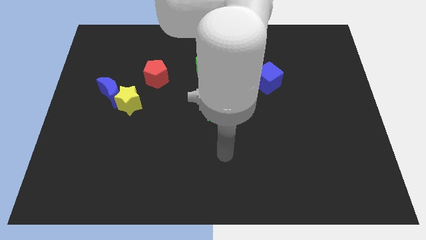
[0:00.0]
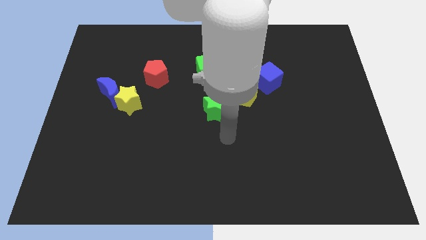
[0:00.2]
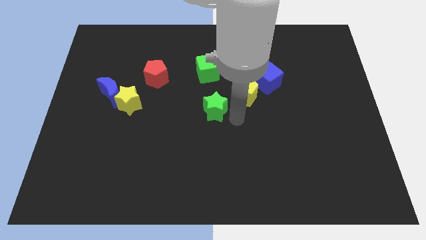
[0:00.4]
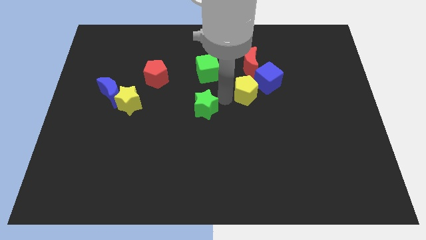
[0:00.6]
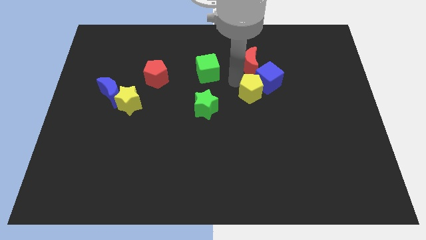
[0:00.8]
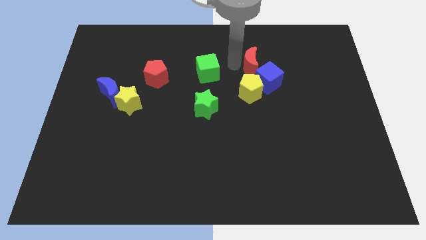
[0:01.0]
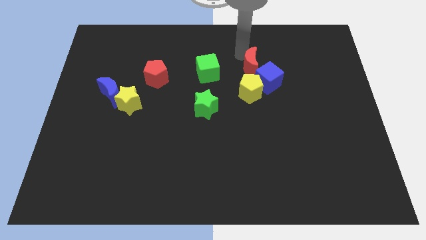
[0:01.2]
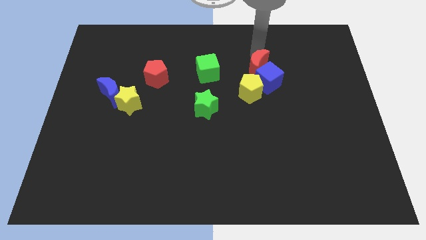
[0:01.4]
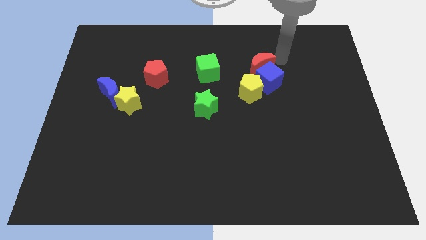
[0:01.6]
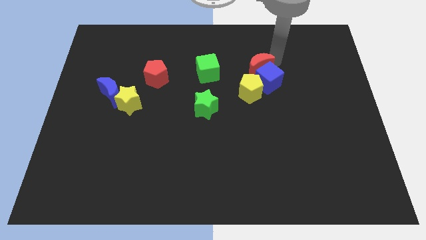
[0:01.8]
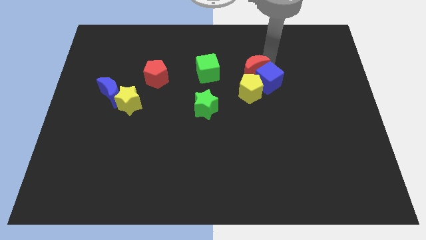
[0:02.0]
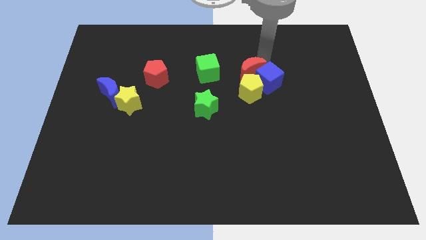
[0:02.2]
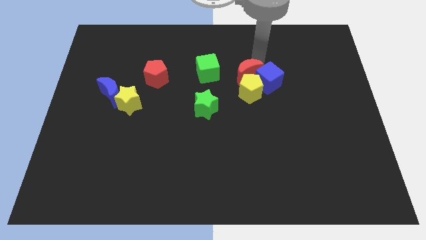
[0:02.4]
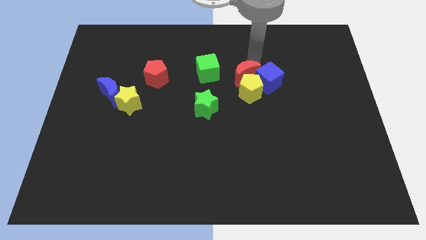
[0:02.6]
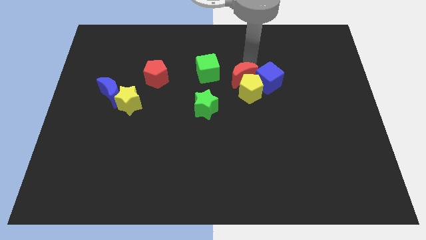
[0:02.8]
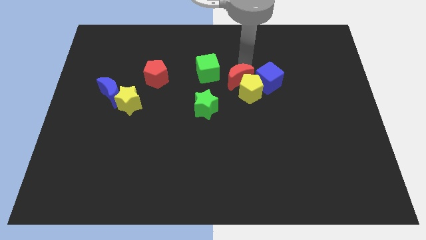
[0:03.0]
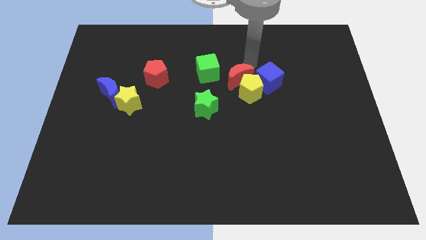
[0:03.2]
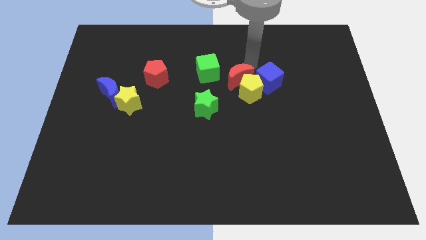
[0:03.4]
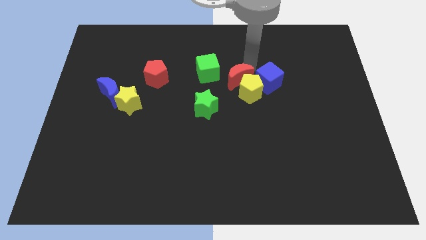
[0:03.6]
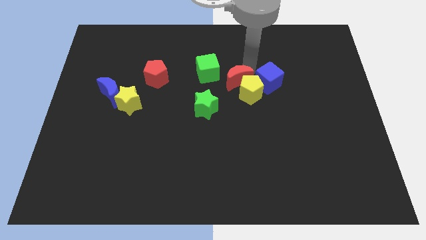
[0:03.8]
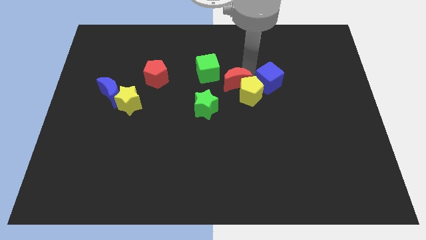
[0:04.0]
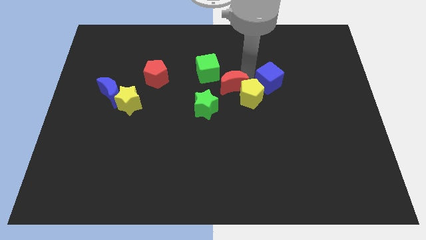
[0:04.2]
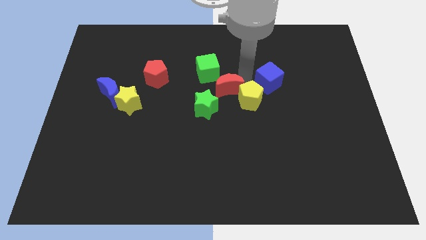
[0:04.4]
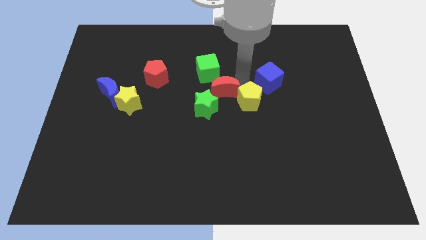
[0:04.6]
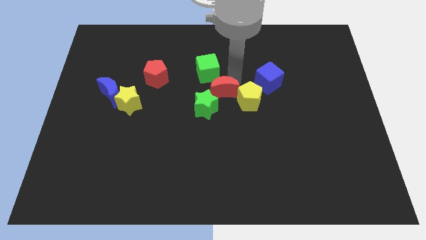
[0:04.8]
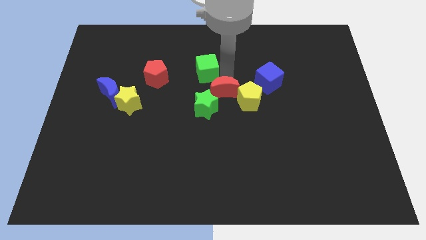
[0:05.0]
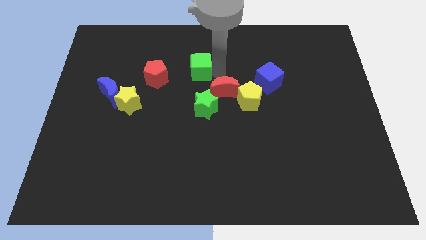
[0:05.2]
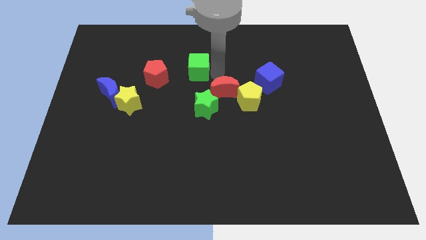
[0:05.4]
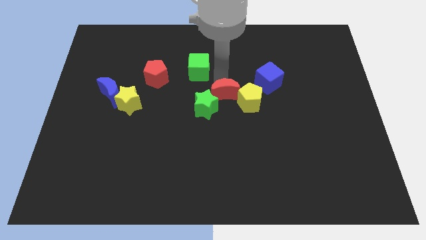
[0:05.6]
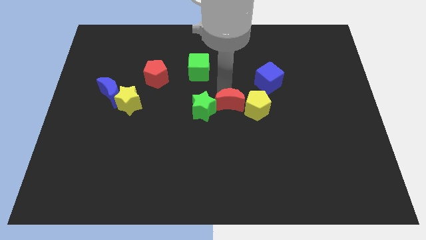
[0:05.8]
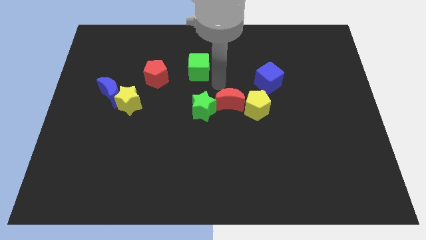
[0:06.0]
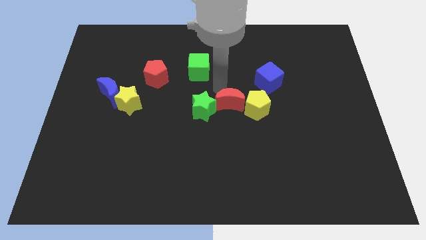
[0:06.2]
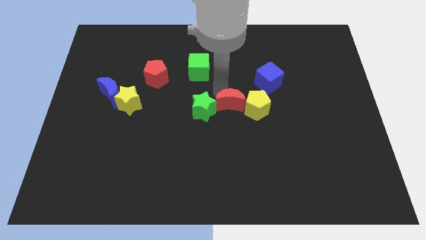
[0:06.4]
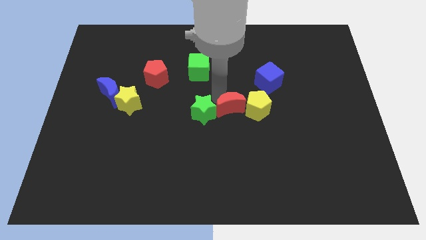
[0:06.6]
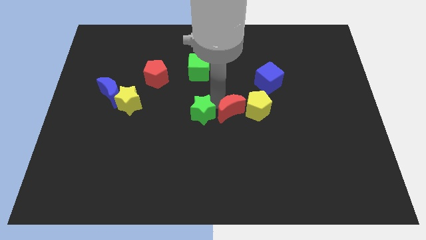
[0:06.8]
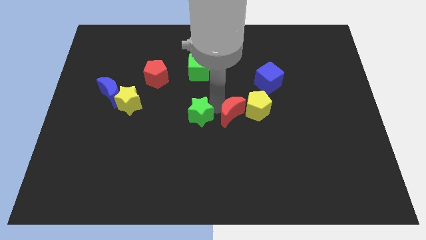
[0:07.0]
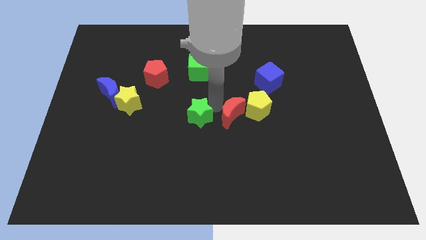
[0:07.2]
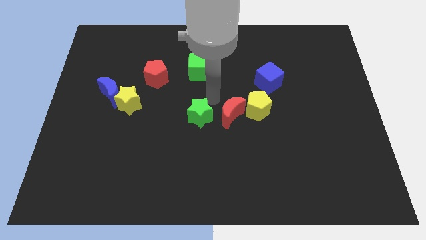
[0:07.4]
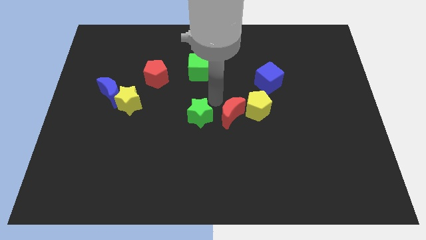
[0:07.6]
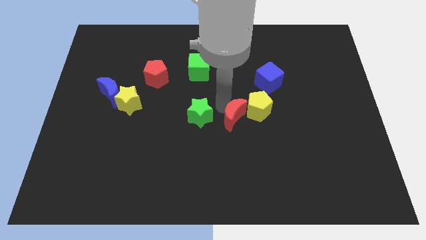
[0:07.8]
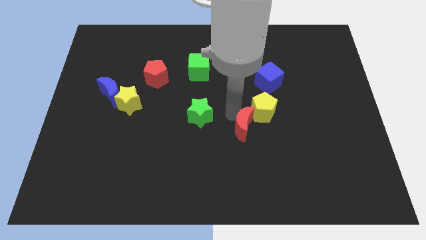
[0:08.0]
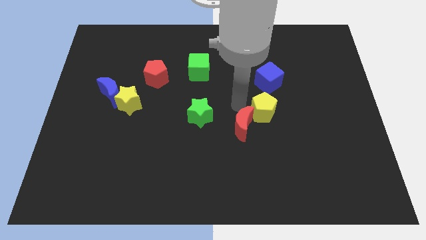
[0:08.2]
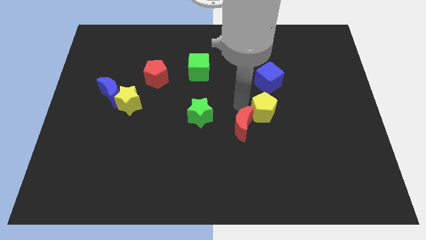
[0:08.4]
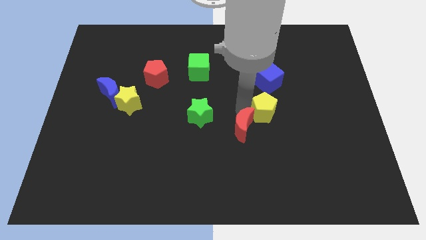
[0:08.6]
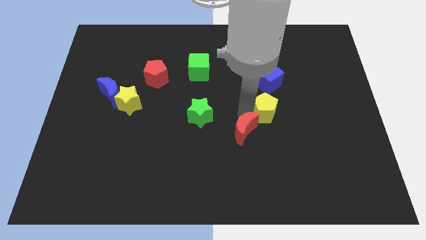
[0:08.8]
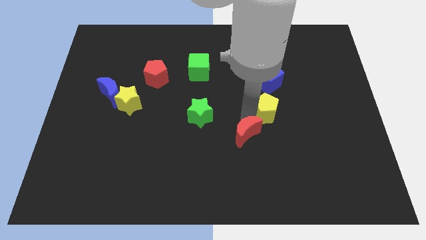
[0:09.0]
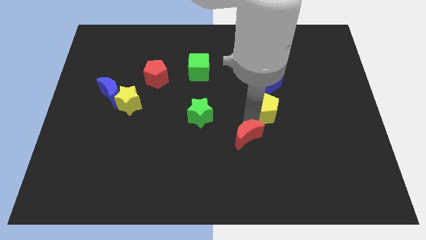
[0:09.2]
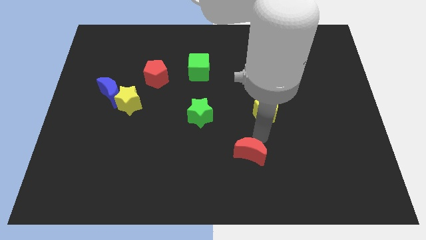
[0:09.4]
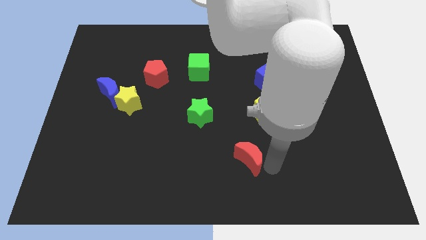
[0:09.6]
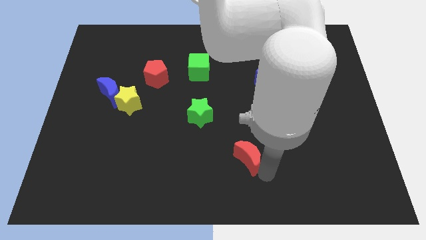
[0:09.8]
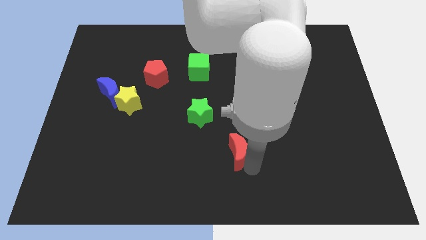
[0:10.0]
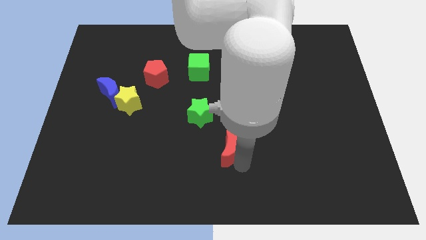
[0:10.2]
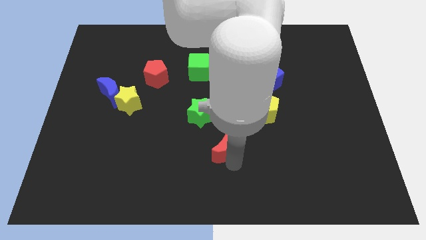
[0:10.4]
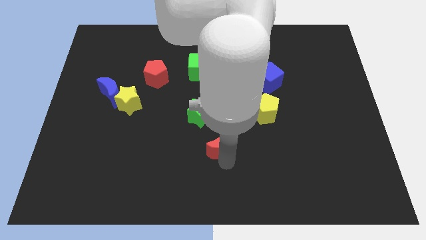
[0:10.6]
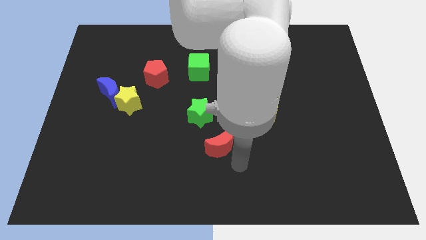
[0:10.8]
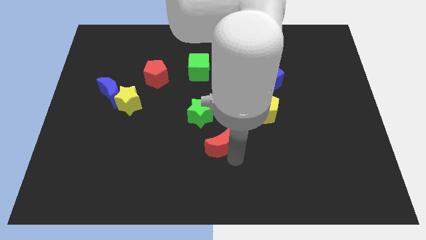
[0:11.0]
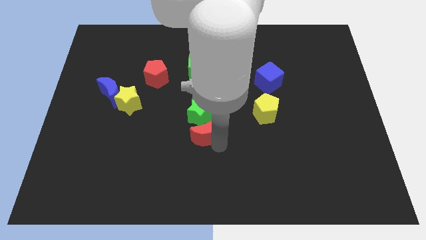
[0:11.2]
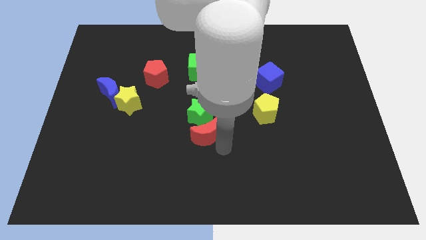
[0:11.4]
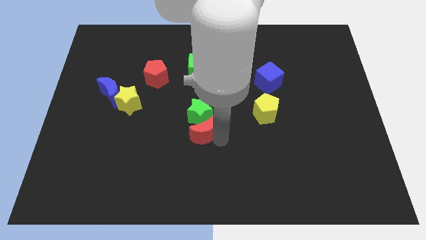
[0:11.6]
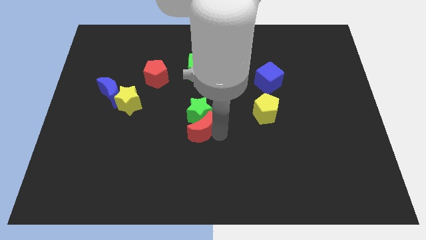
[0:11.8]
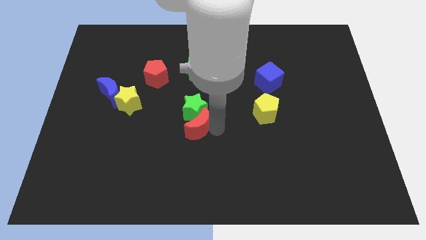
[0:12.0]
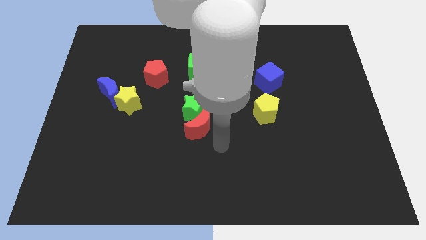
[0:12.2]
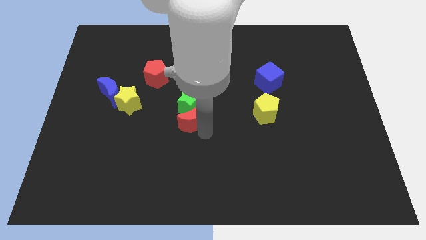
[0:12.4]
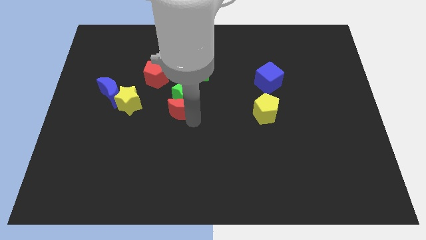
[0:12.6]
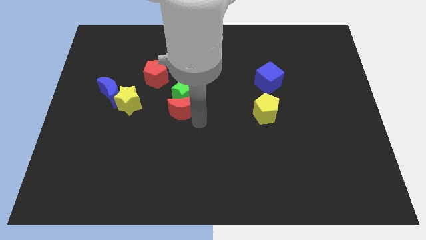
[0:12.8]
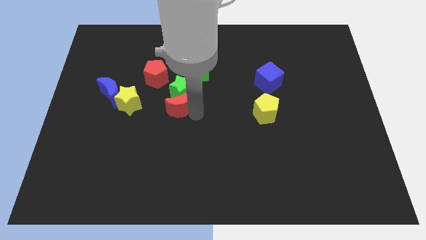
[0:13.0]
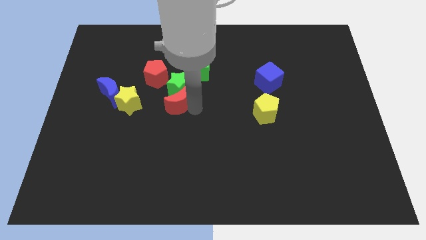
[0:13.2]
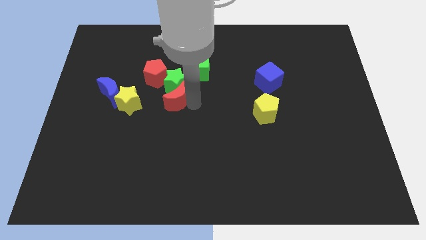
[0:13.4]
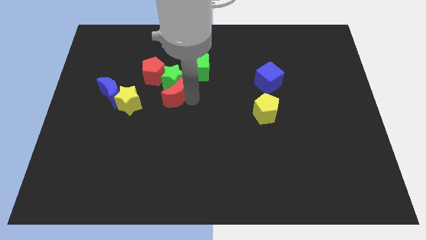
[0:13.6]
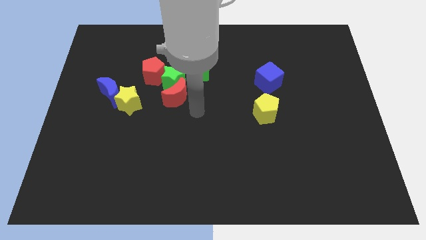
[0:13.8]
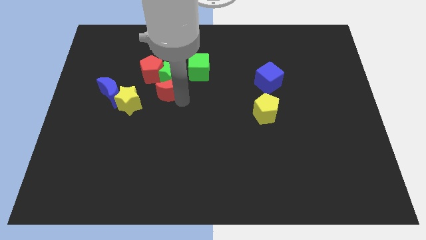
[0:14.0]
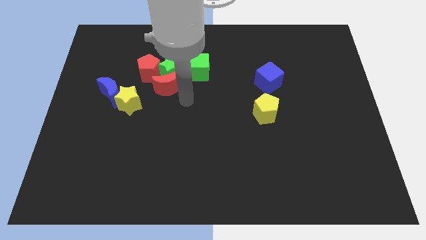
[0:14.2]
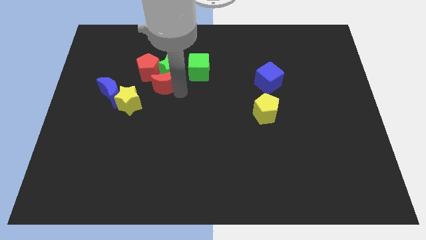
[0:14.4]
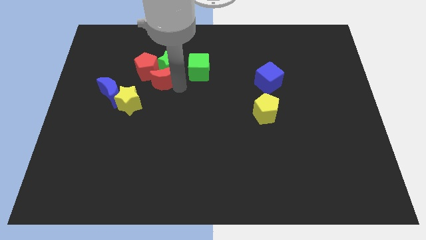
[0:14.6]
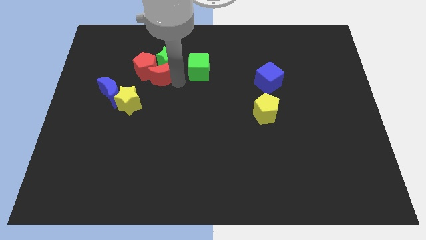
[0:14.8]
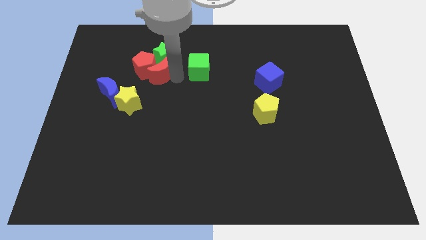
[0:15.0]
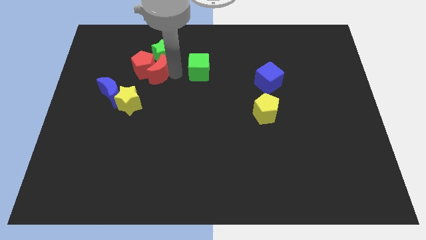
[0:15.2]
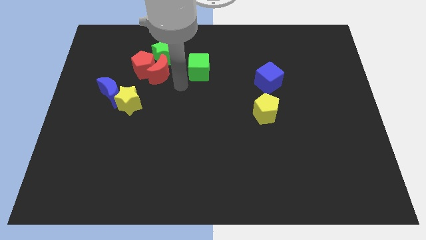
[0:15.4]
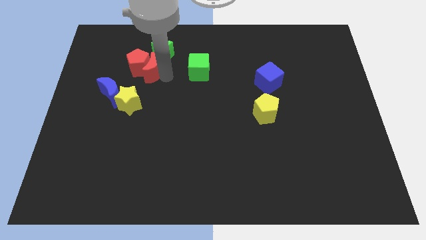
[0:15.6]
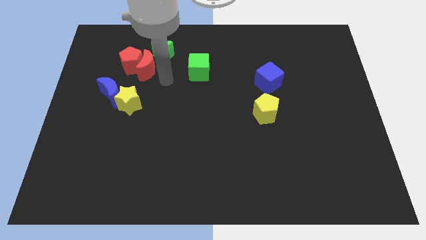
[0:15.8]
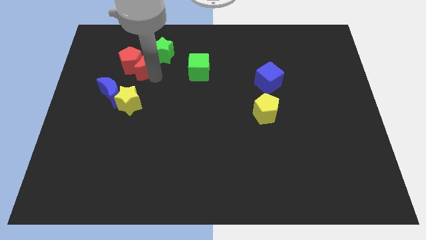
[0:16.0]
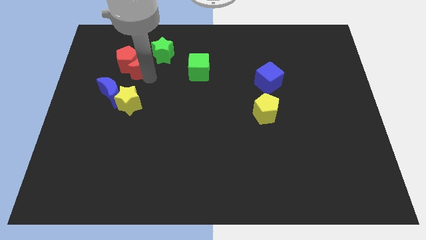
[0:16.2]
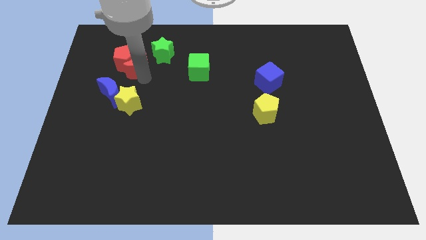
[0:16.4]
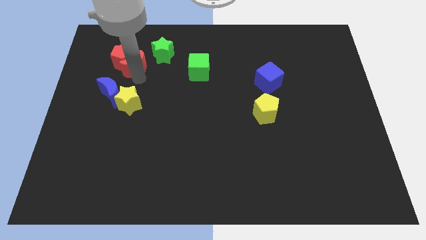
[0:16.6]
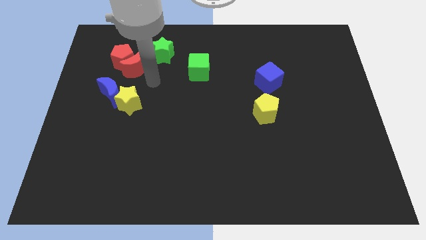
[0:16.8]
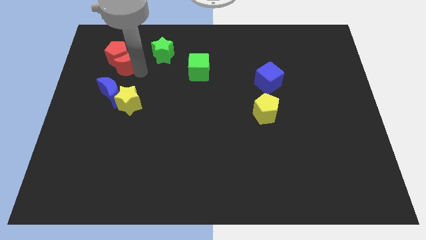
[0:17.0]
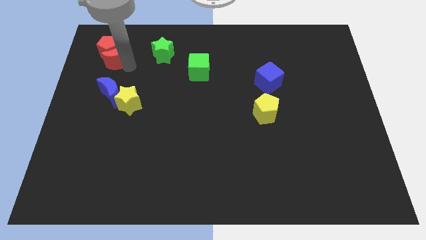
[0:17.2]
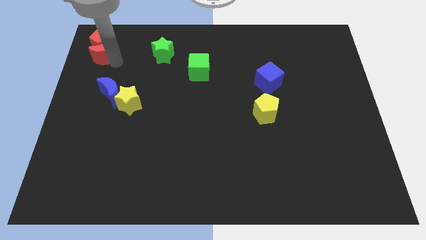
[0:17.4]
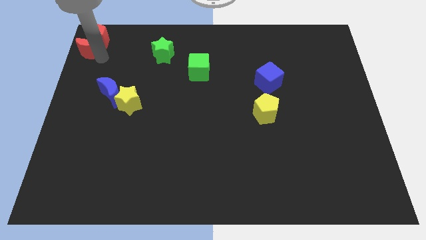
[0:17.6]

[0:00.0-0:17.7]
move the red moon to the top left
